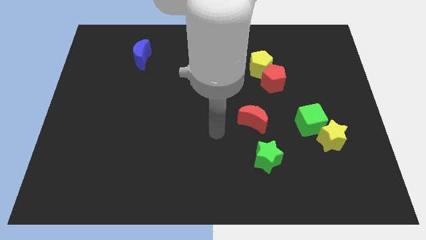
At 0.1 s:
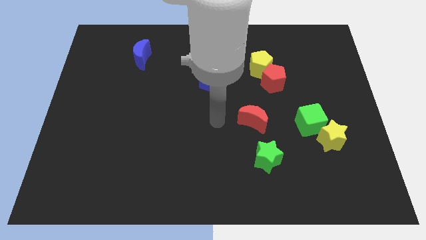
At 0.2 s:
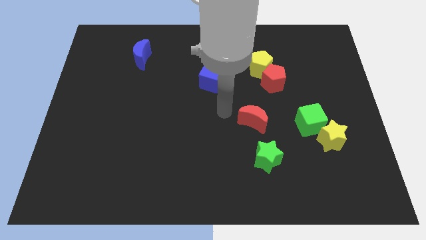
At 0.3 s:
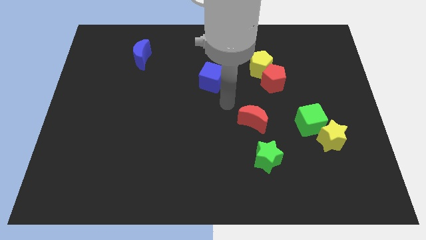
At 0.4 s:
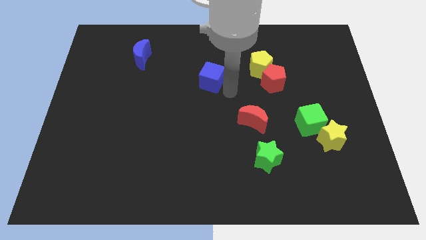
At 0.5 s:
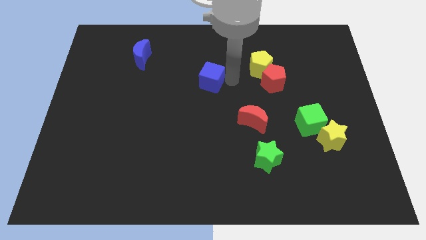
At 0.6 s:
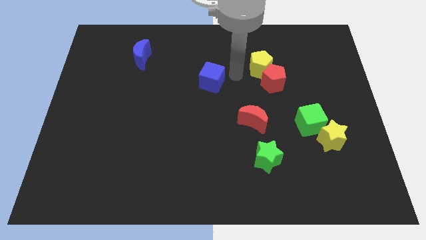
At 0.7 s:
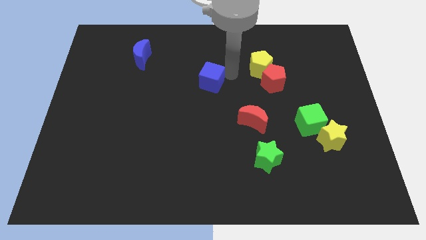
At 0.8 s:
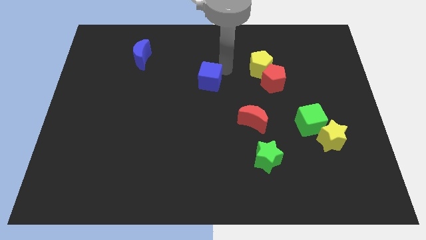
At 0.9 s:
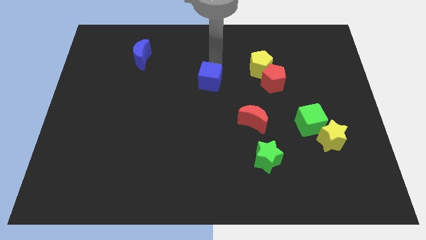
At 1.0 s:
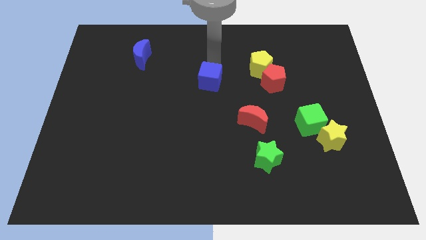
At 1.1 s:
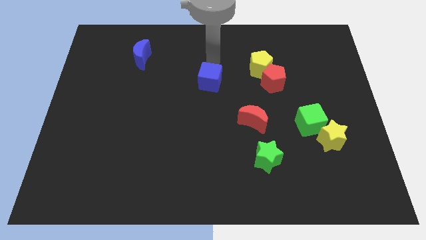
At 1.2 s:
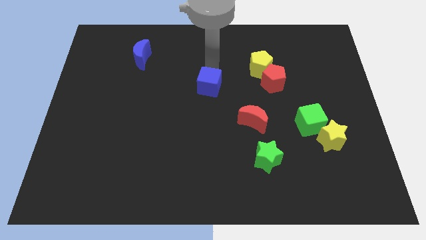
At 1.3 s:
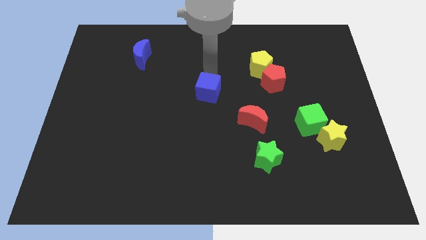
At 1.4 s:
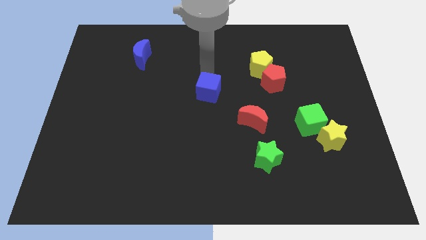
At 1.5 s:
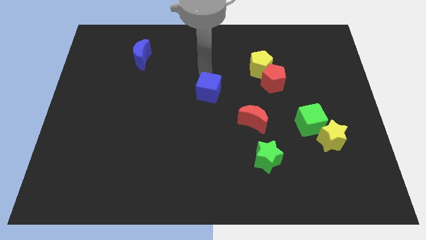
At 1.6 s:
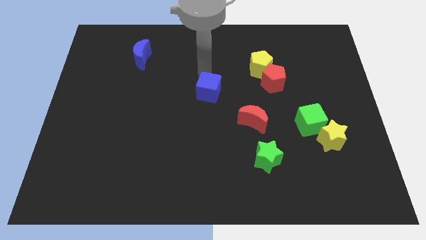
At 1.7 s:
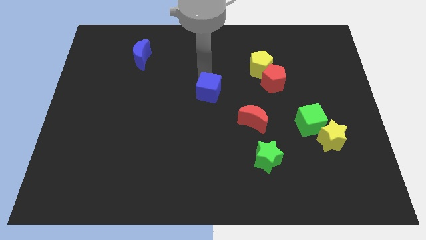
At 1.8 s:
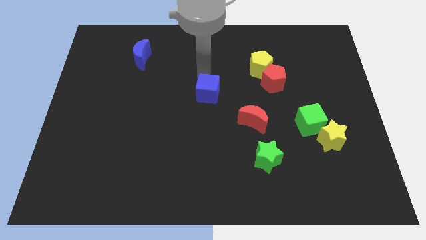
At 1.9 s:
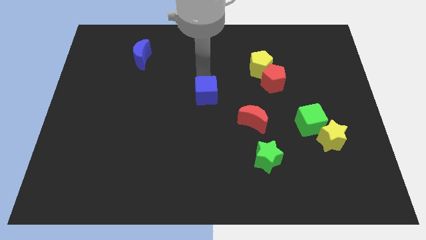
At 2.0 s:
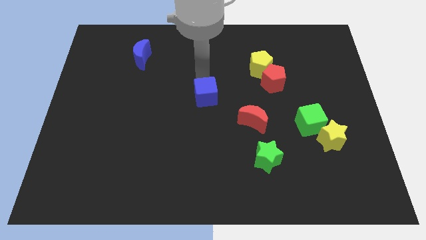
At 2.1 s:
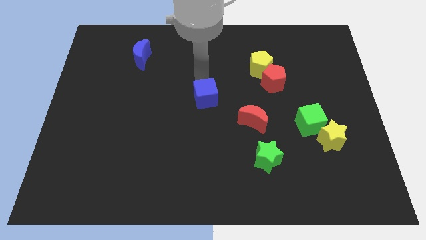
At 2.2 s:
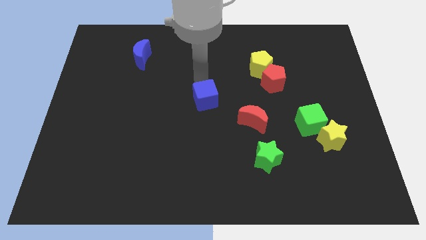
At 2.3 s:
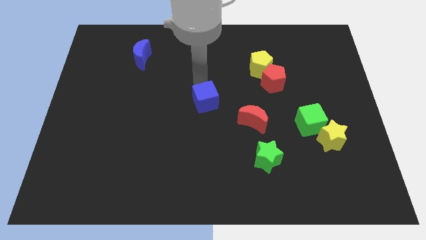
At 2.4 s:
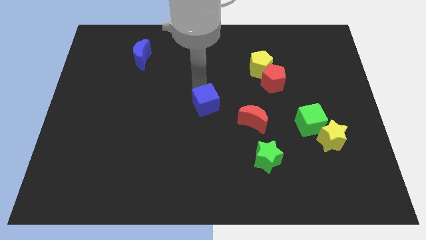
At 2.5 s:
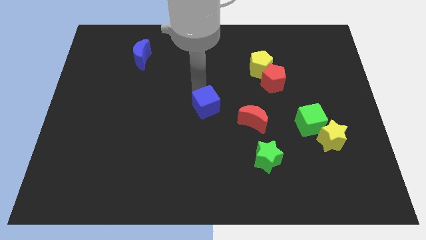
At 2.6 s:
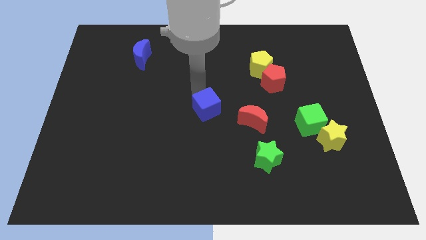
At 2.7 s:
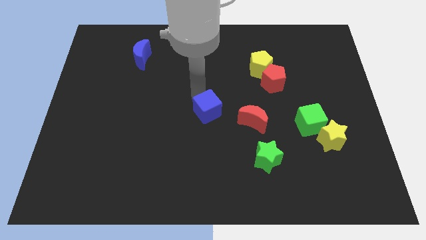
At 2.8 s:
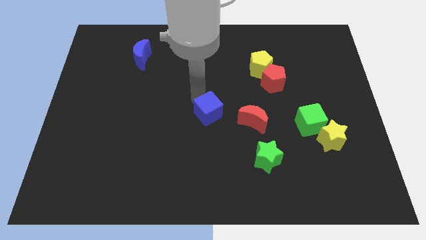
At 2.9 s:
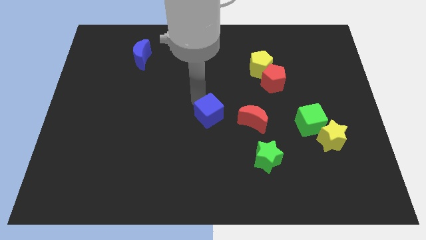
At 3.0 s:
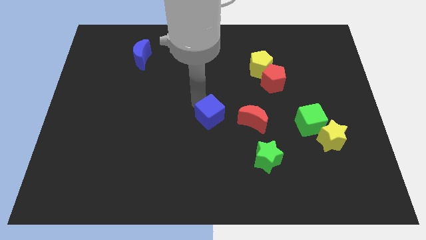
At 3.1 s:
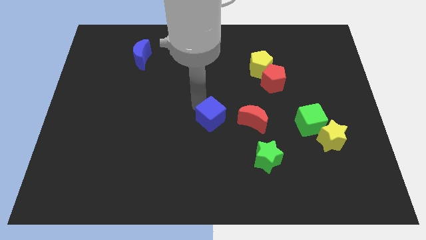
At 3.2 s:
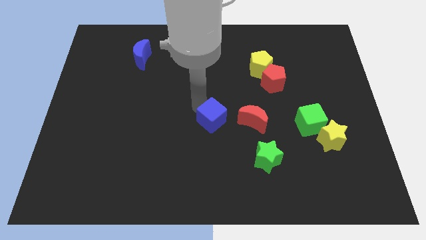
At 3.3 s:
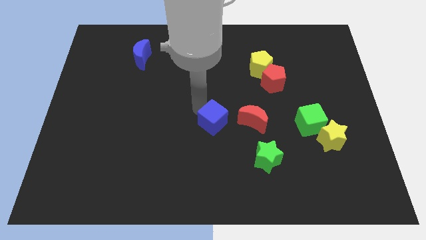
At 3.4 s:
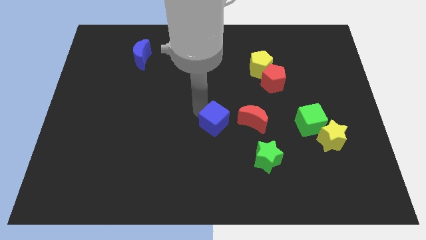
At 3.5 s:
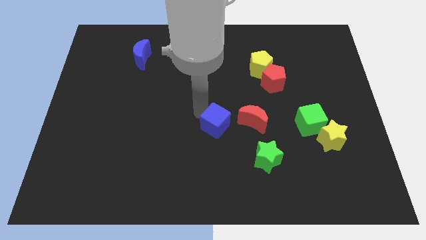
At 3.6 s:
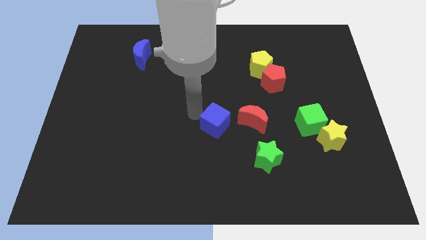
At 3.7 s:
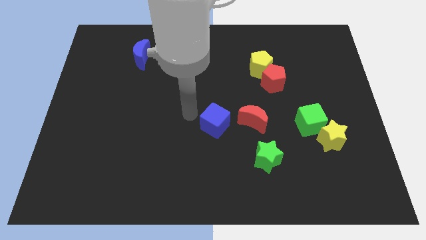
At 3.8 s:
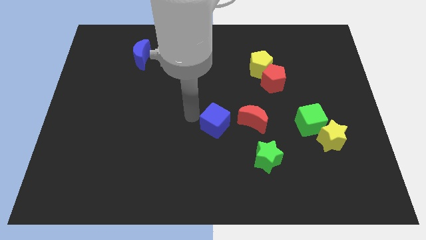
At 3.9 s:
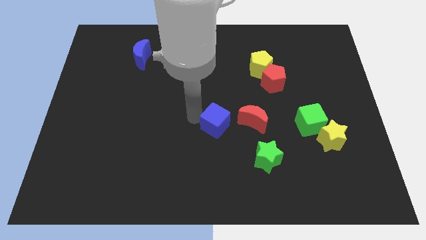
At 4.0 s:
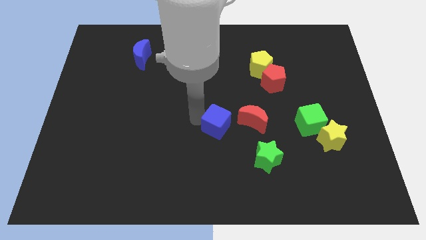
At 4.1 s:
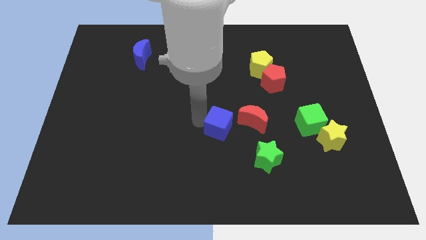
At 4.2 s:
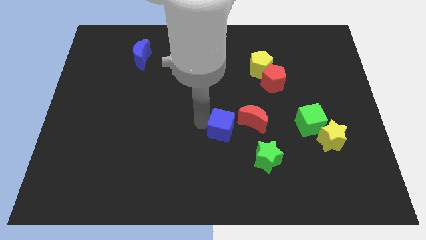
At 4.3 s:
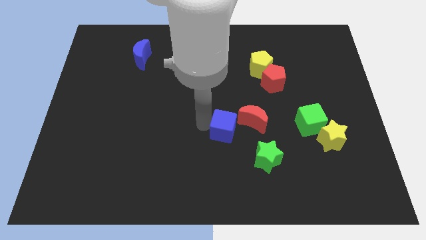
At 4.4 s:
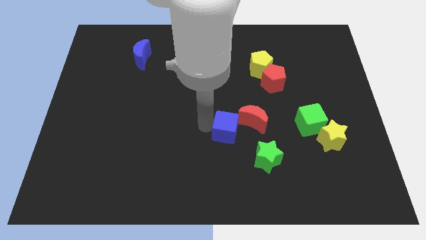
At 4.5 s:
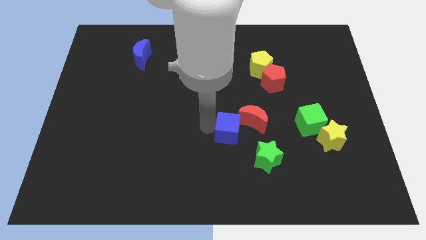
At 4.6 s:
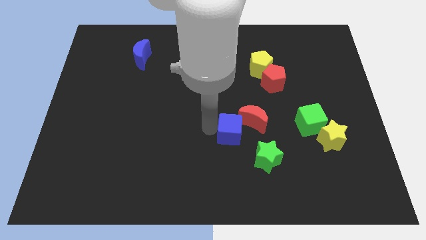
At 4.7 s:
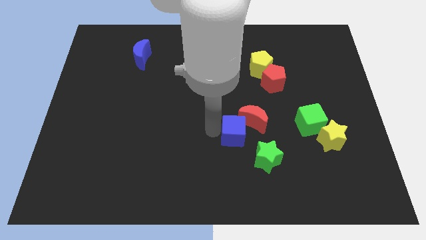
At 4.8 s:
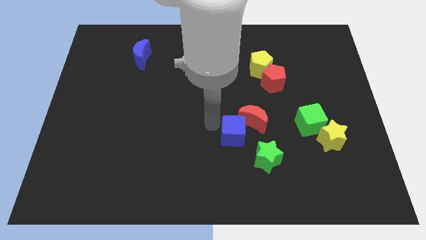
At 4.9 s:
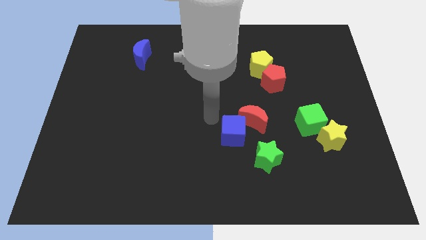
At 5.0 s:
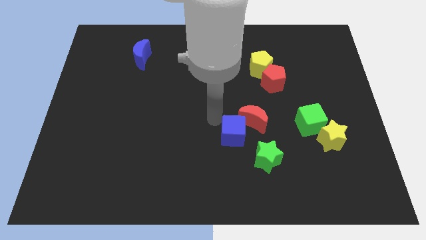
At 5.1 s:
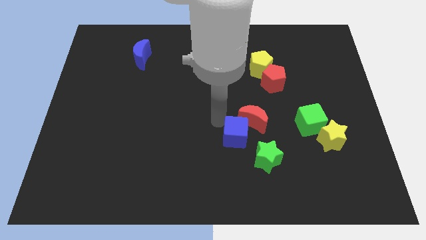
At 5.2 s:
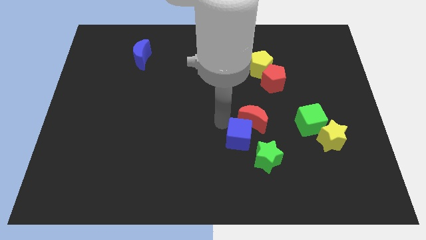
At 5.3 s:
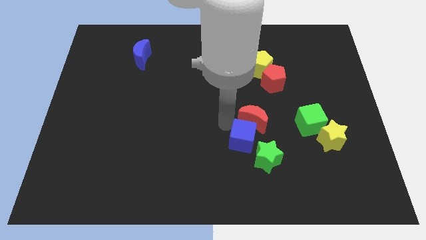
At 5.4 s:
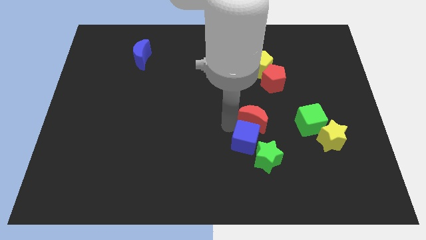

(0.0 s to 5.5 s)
slide the blue cube towards the green star
